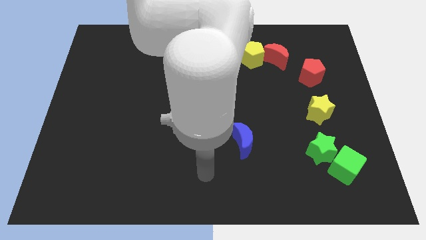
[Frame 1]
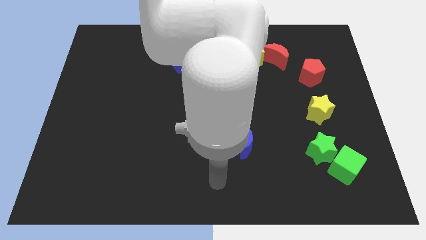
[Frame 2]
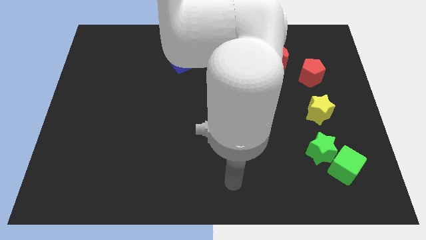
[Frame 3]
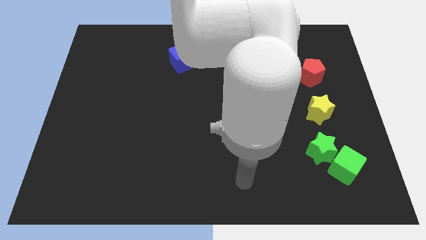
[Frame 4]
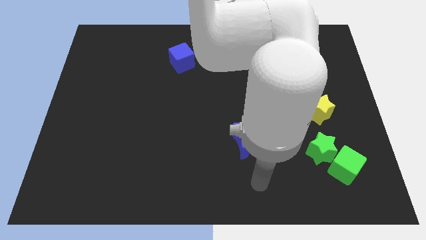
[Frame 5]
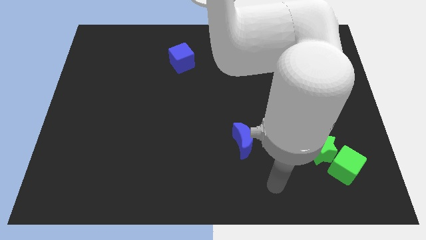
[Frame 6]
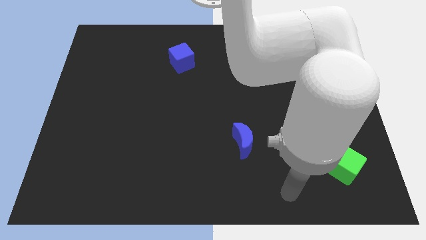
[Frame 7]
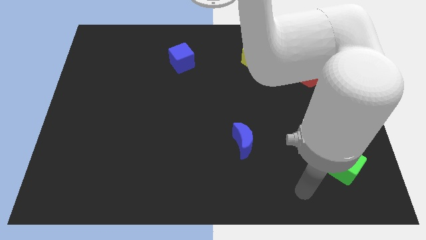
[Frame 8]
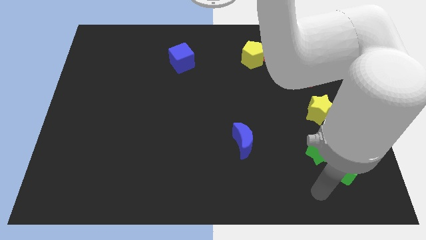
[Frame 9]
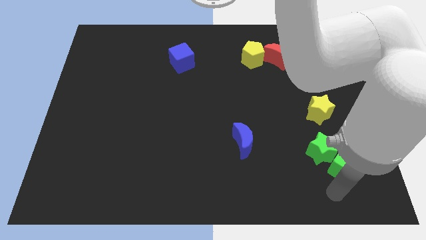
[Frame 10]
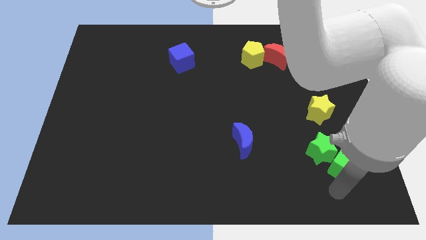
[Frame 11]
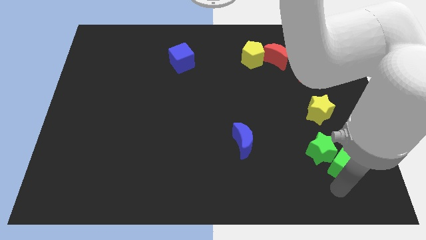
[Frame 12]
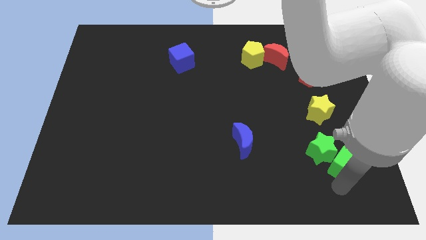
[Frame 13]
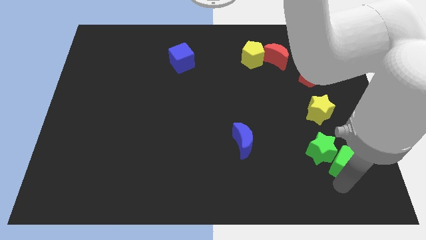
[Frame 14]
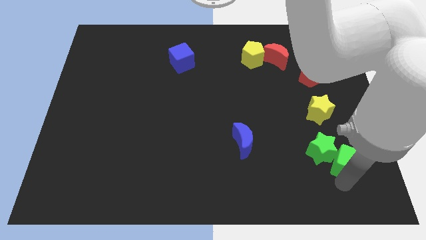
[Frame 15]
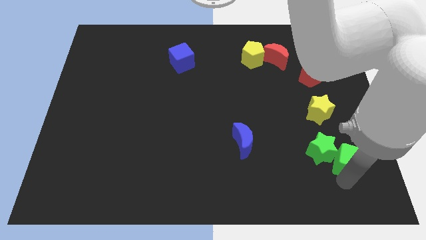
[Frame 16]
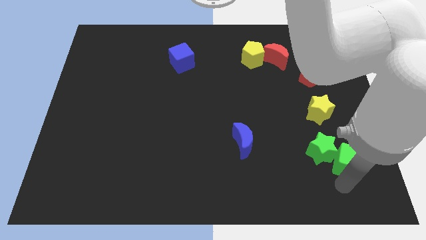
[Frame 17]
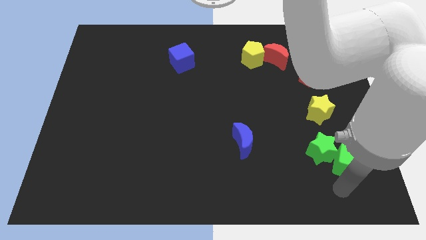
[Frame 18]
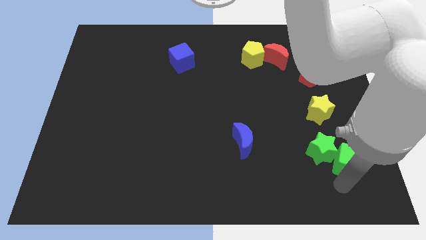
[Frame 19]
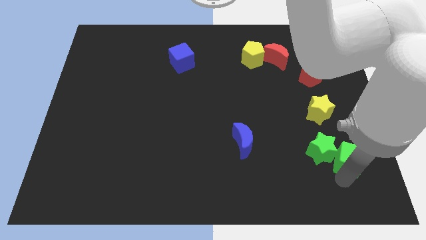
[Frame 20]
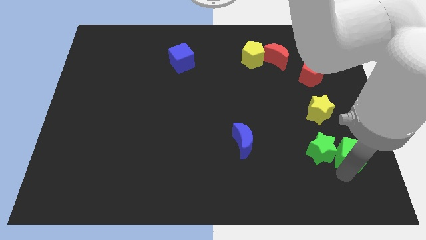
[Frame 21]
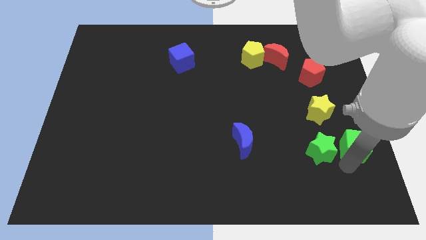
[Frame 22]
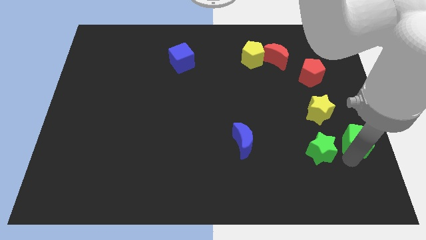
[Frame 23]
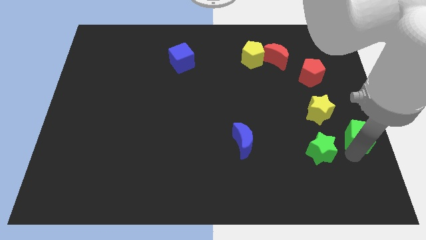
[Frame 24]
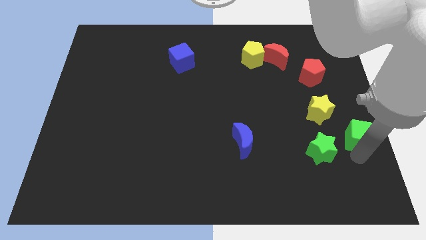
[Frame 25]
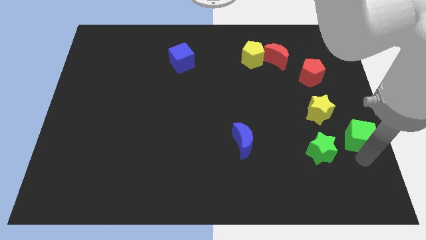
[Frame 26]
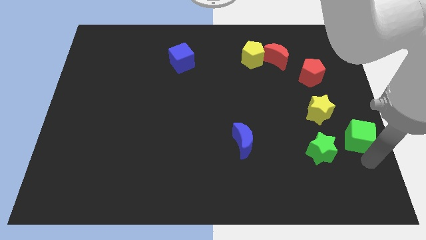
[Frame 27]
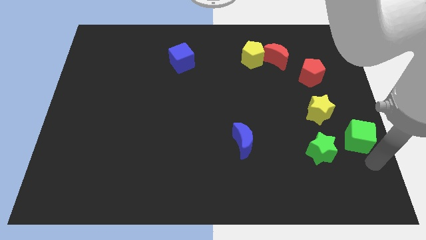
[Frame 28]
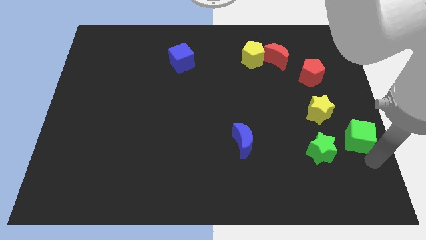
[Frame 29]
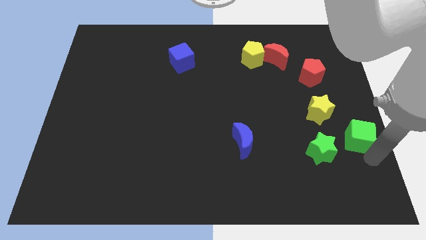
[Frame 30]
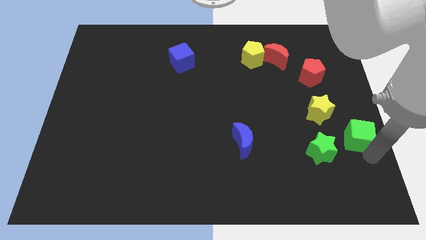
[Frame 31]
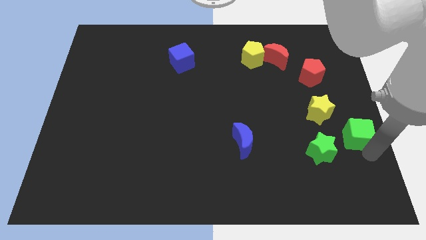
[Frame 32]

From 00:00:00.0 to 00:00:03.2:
move the green cube up a little

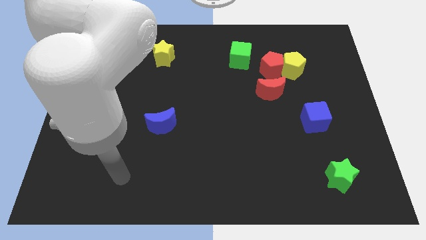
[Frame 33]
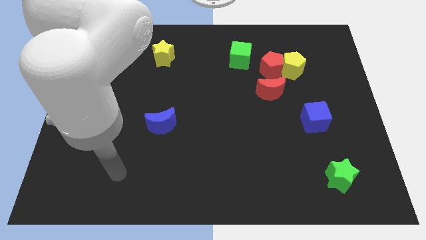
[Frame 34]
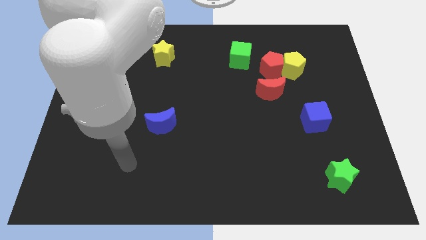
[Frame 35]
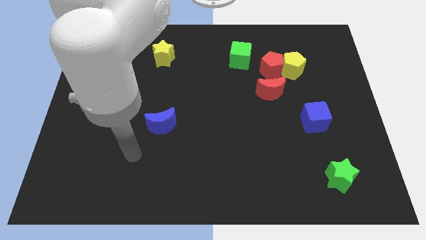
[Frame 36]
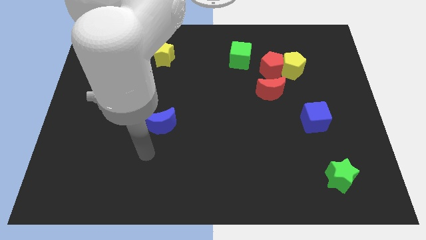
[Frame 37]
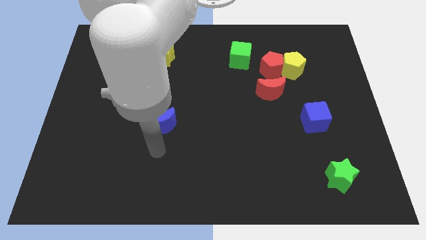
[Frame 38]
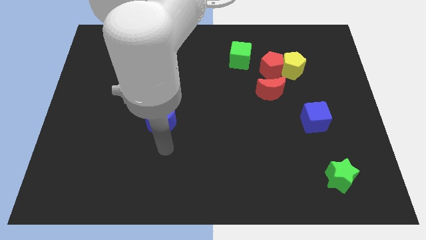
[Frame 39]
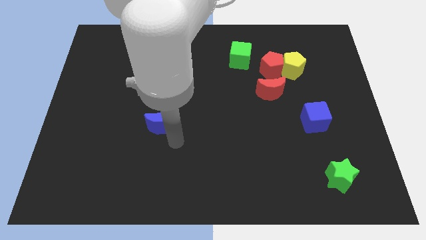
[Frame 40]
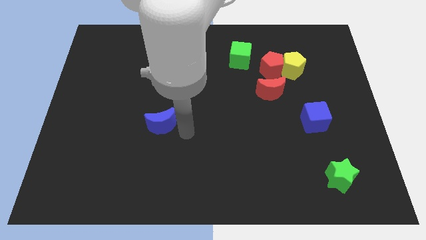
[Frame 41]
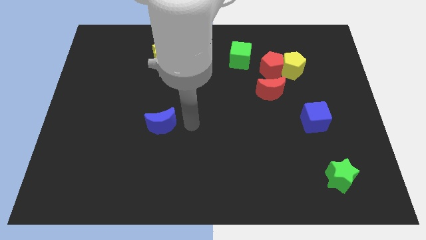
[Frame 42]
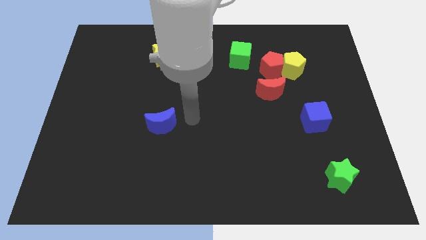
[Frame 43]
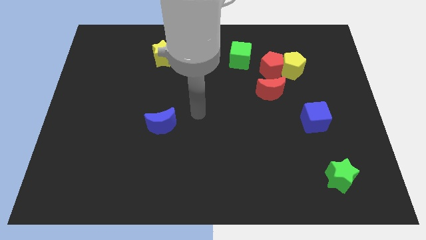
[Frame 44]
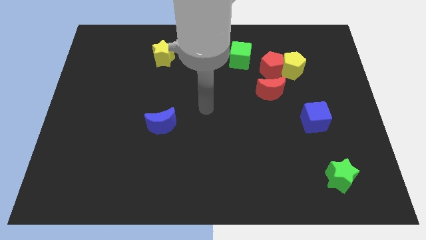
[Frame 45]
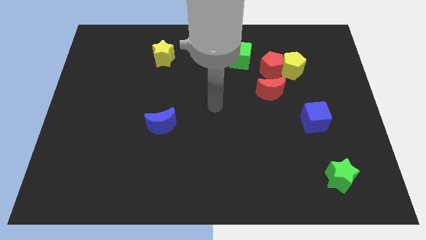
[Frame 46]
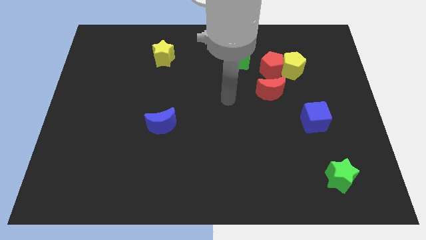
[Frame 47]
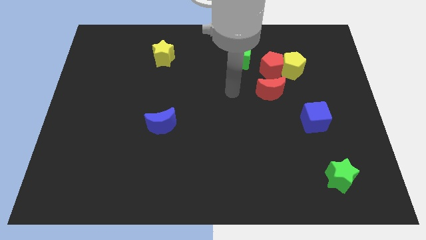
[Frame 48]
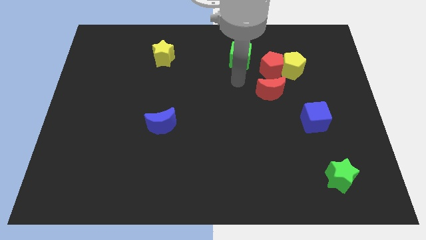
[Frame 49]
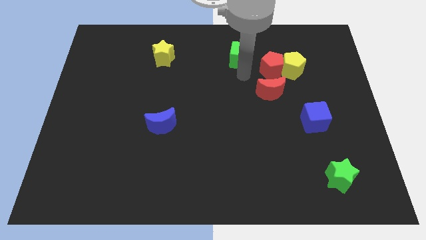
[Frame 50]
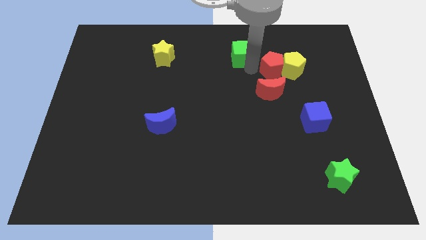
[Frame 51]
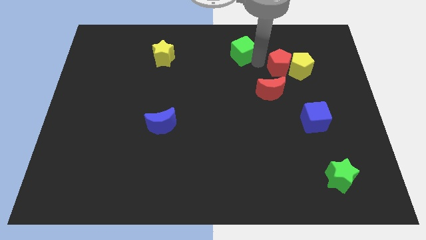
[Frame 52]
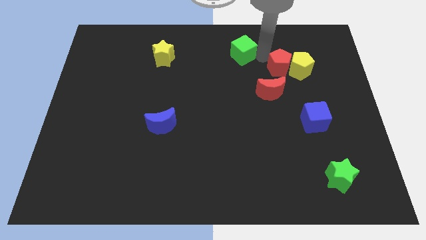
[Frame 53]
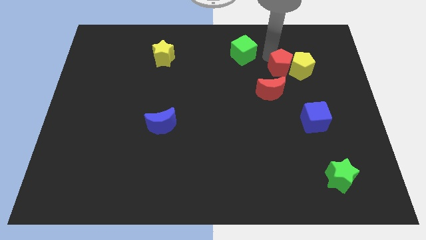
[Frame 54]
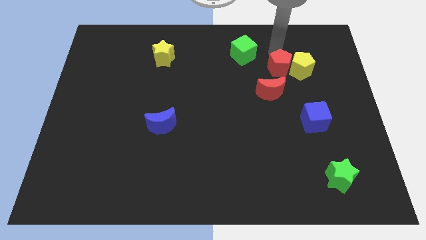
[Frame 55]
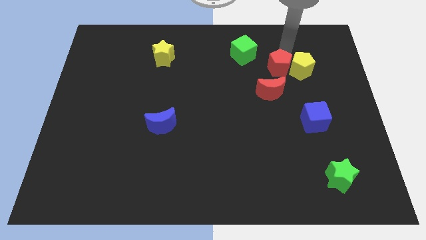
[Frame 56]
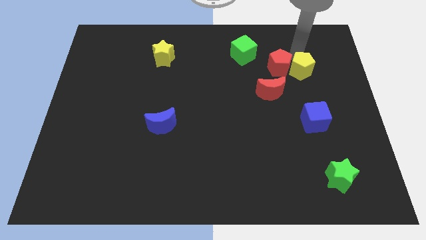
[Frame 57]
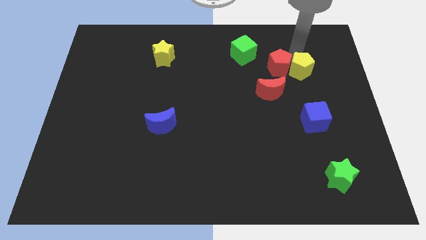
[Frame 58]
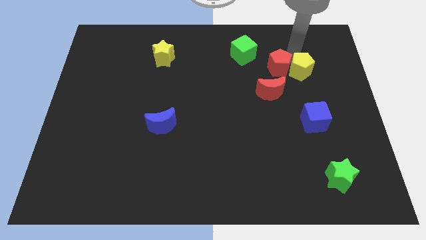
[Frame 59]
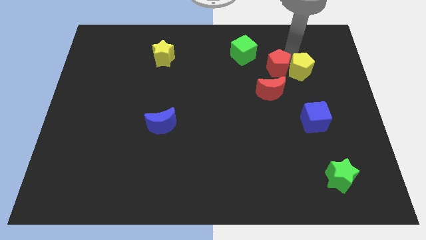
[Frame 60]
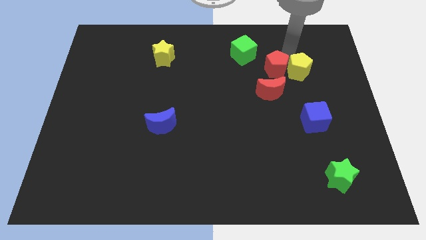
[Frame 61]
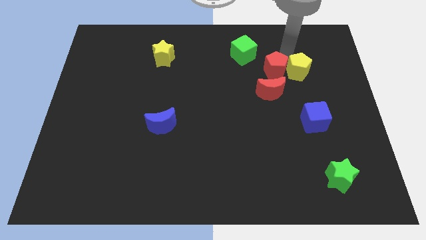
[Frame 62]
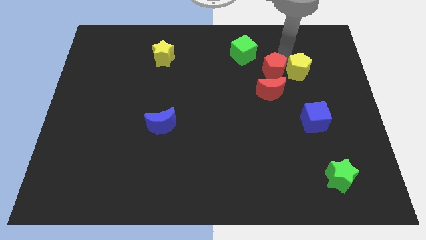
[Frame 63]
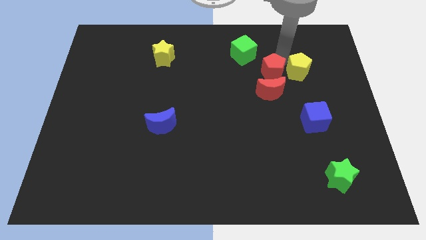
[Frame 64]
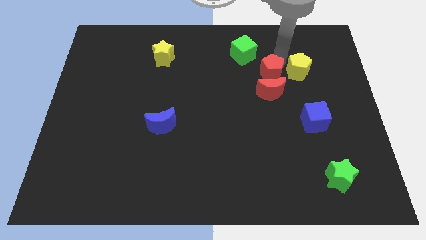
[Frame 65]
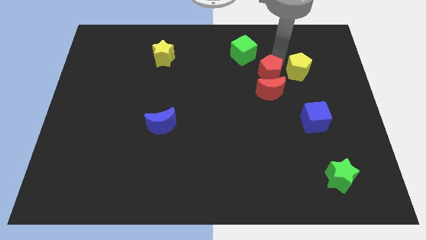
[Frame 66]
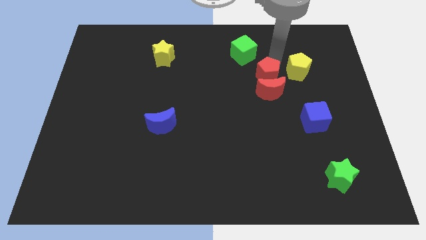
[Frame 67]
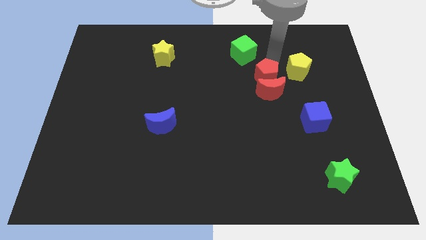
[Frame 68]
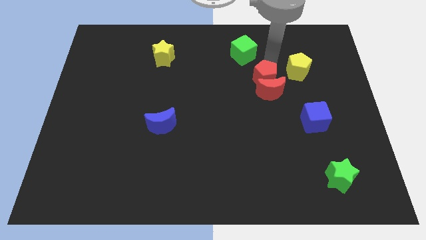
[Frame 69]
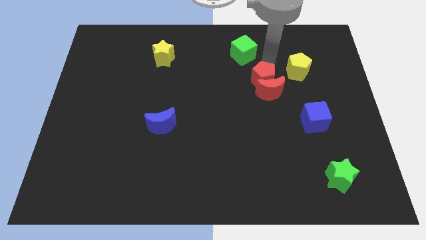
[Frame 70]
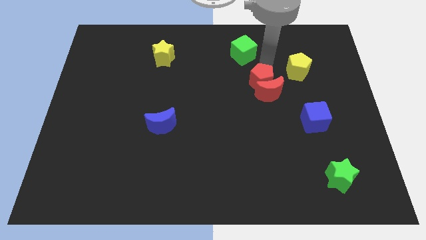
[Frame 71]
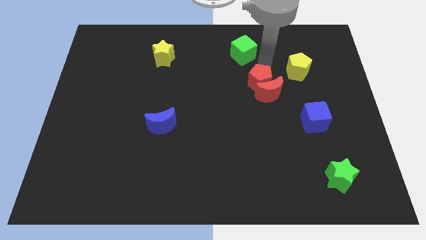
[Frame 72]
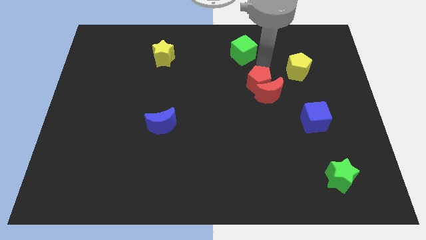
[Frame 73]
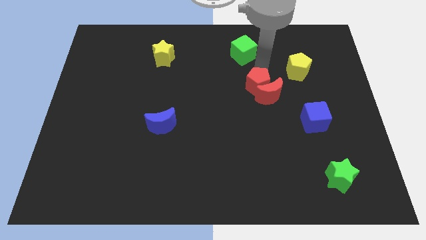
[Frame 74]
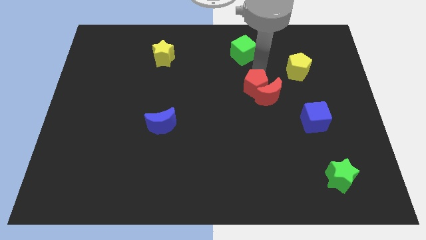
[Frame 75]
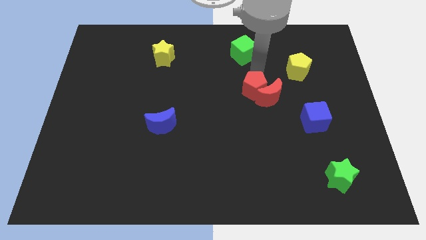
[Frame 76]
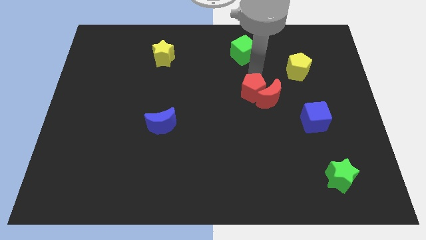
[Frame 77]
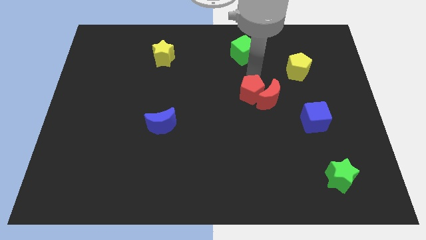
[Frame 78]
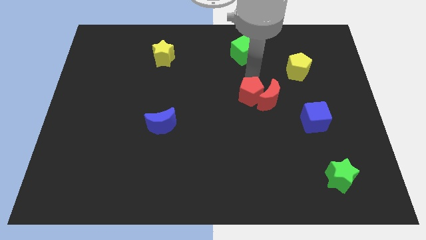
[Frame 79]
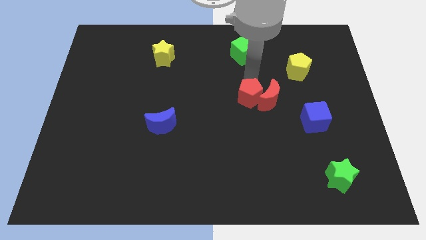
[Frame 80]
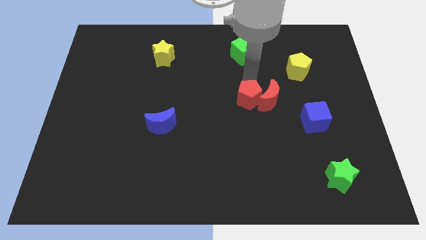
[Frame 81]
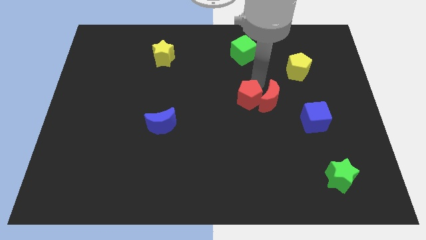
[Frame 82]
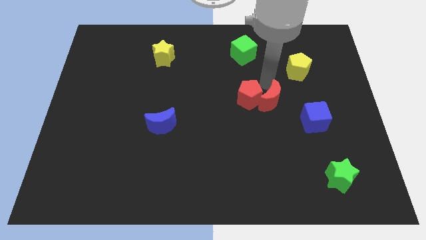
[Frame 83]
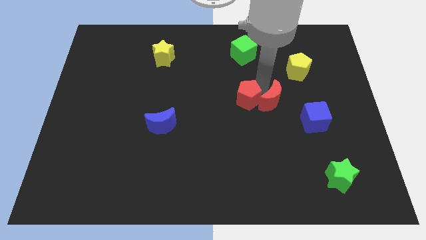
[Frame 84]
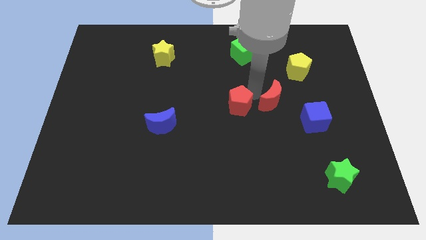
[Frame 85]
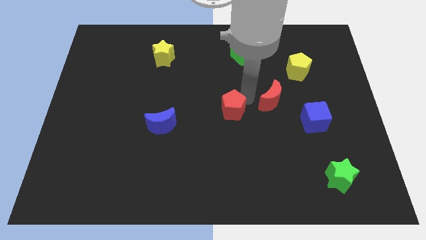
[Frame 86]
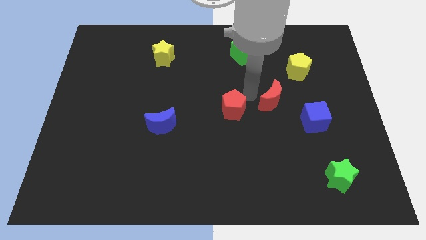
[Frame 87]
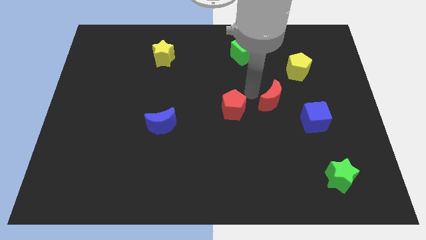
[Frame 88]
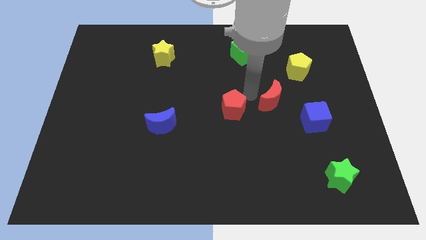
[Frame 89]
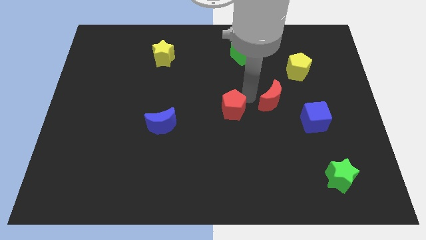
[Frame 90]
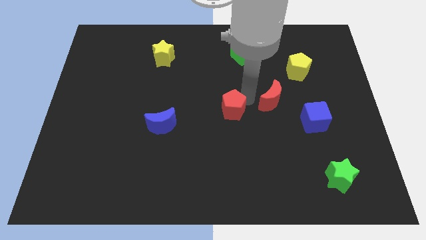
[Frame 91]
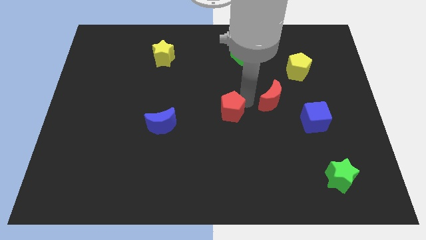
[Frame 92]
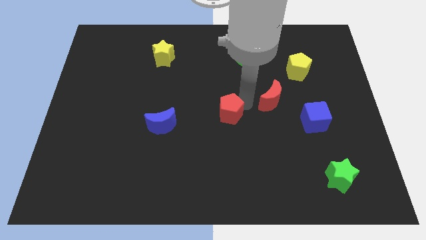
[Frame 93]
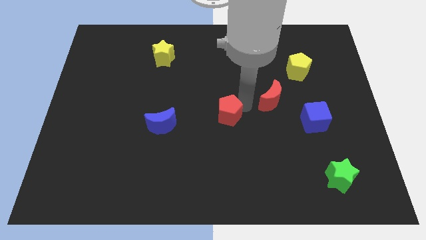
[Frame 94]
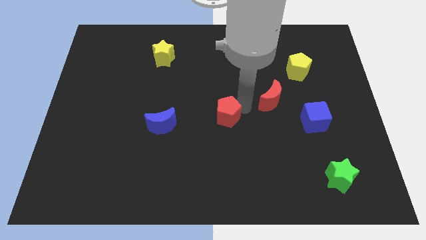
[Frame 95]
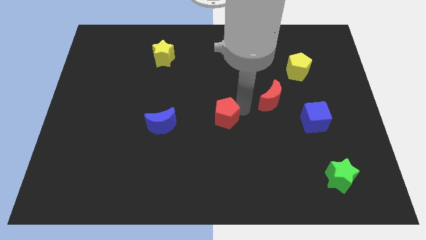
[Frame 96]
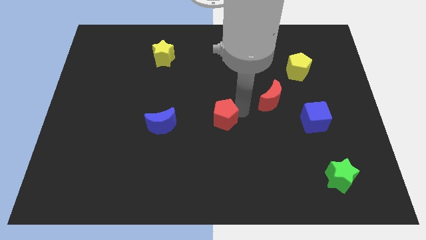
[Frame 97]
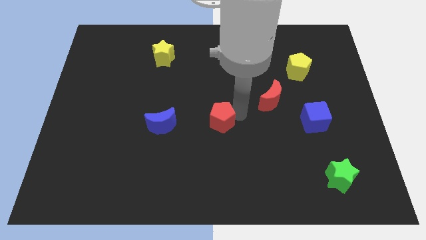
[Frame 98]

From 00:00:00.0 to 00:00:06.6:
slide the red pentagon diagonally down and to the left
